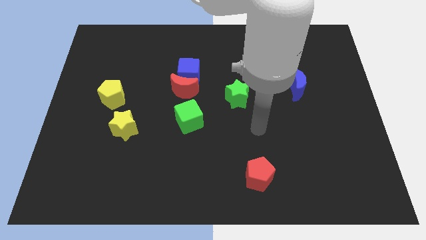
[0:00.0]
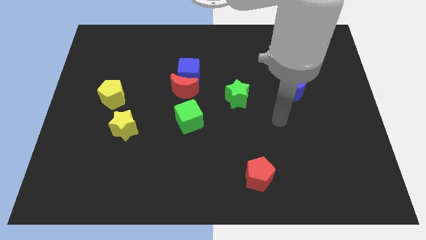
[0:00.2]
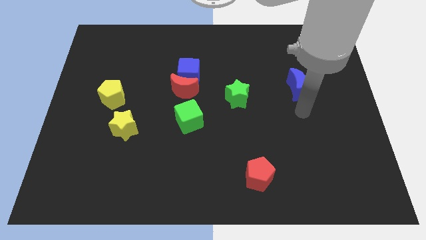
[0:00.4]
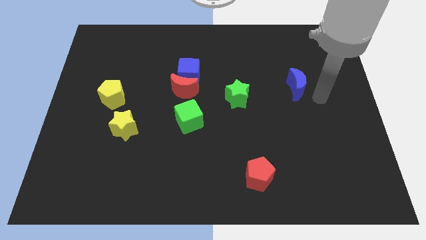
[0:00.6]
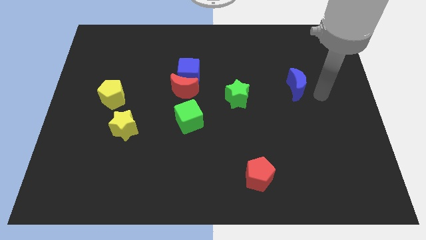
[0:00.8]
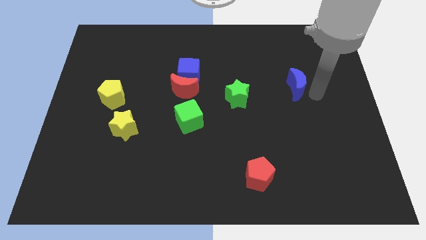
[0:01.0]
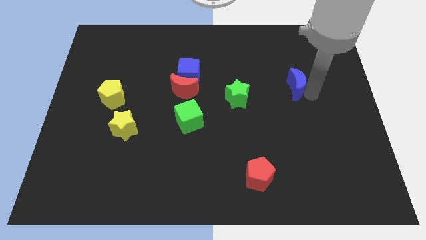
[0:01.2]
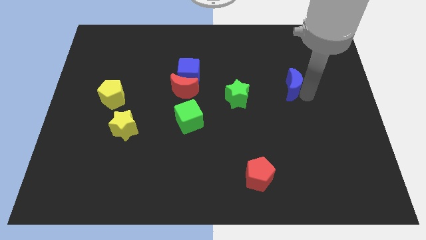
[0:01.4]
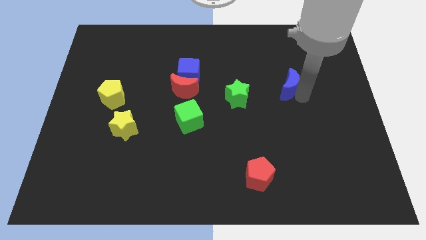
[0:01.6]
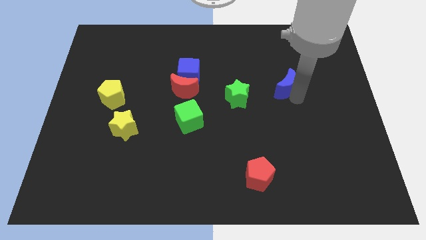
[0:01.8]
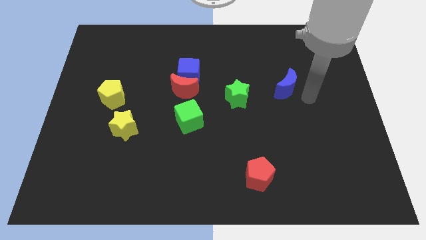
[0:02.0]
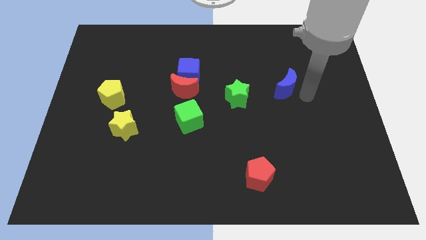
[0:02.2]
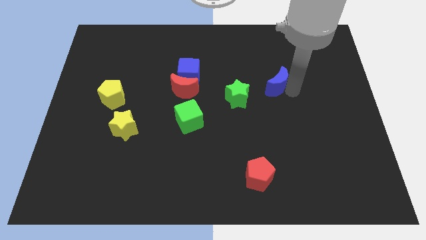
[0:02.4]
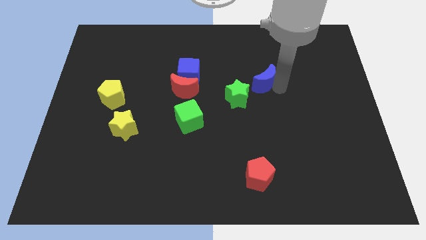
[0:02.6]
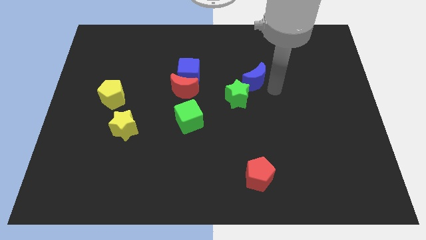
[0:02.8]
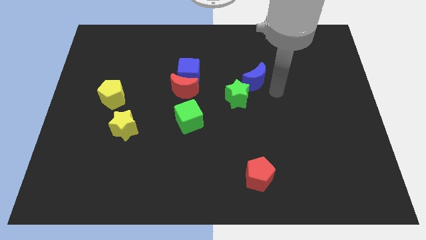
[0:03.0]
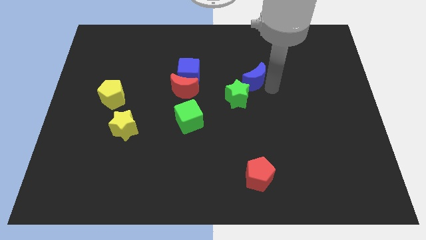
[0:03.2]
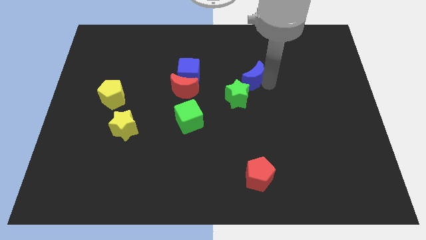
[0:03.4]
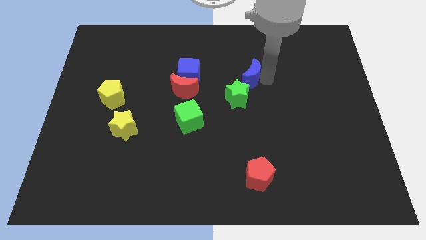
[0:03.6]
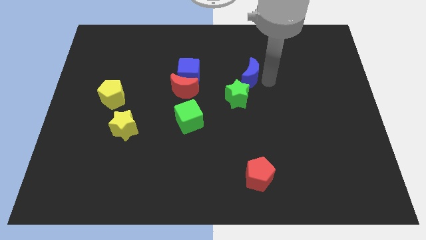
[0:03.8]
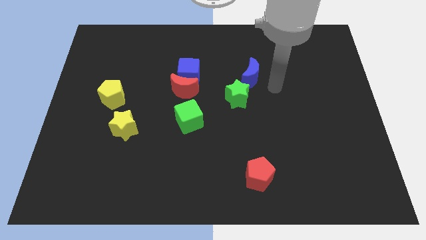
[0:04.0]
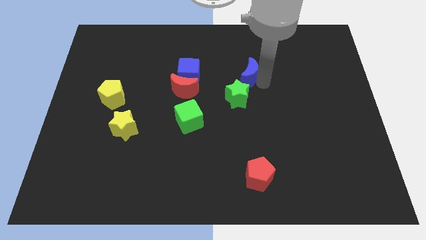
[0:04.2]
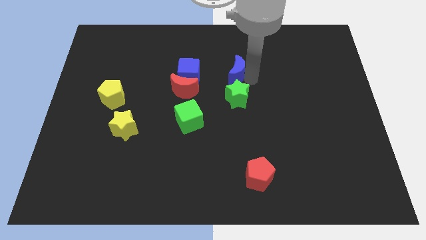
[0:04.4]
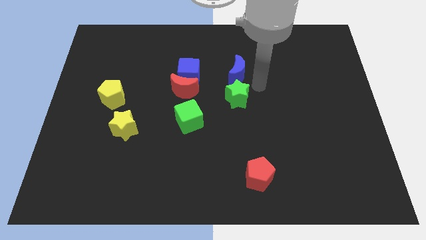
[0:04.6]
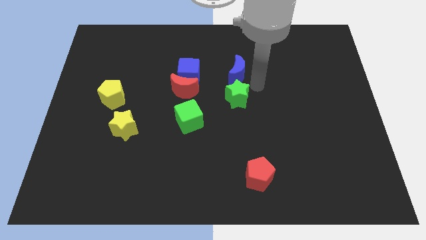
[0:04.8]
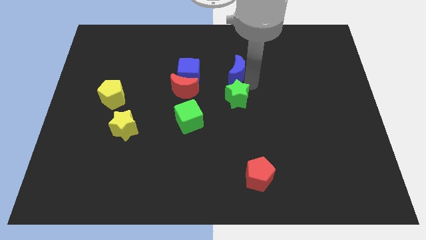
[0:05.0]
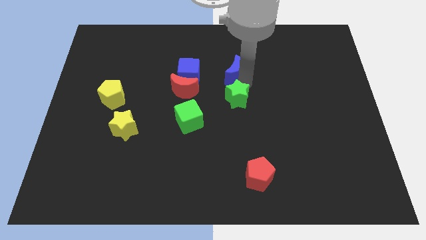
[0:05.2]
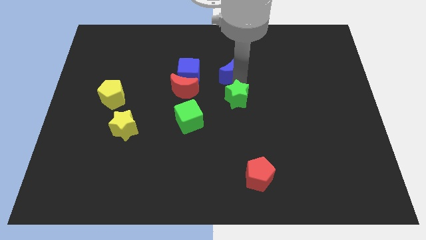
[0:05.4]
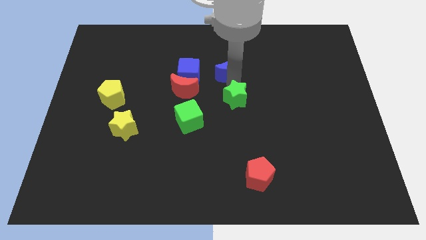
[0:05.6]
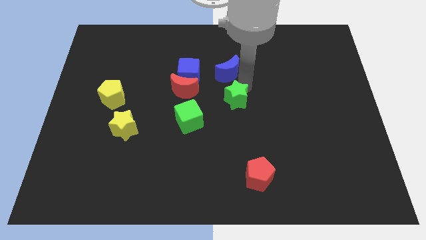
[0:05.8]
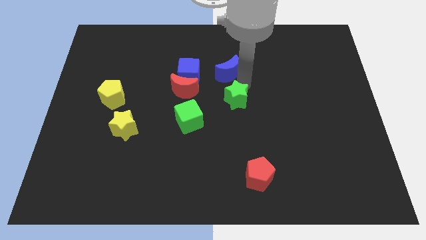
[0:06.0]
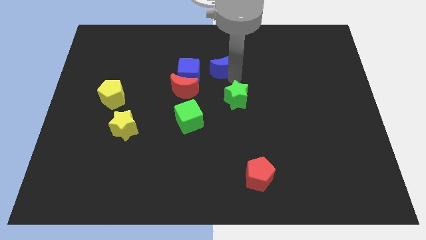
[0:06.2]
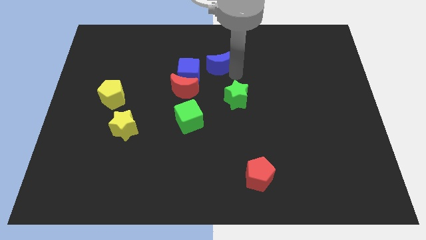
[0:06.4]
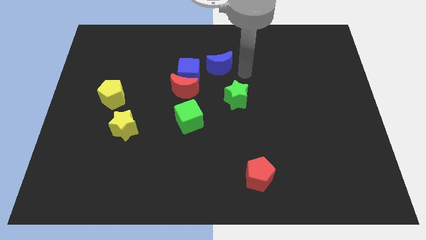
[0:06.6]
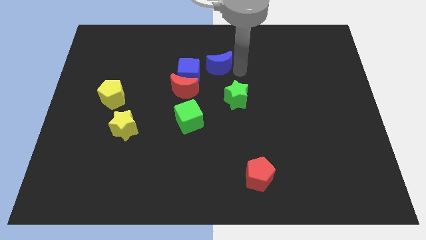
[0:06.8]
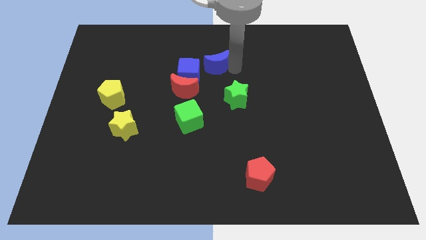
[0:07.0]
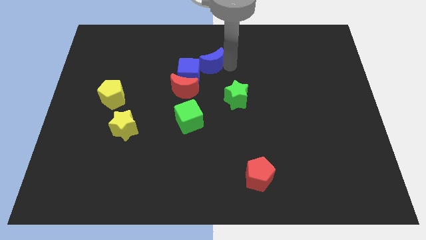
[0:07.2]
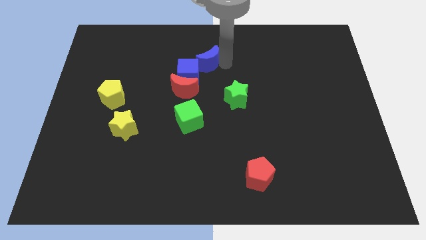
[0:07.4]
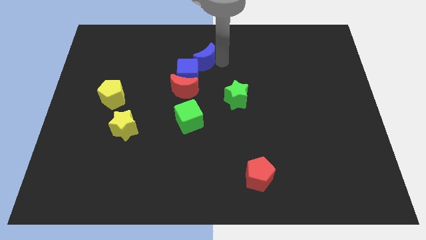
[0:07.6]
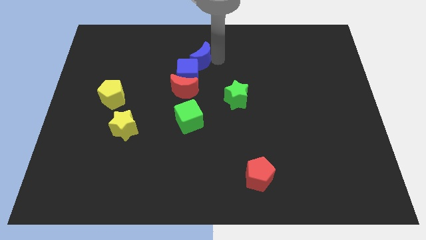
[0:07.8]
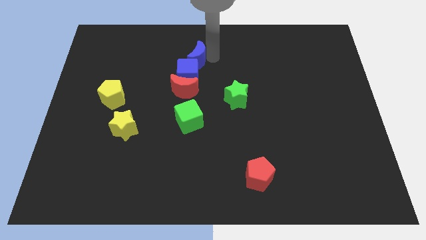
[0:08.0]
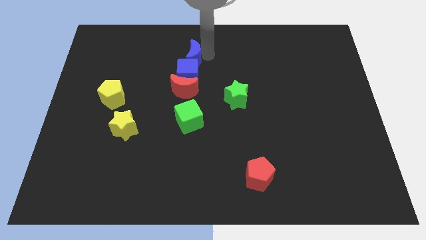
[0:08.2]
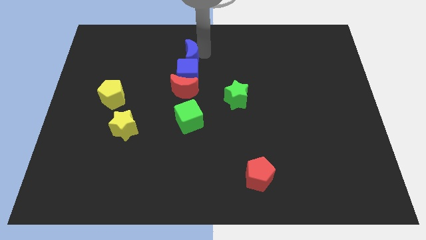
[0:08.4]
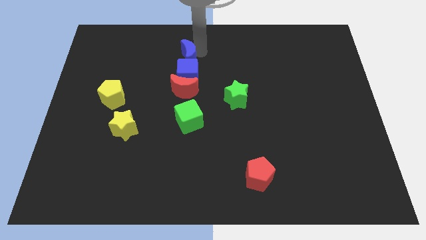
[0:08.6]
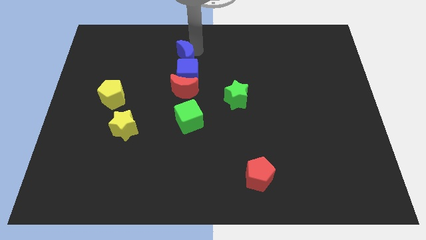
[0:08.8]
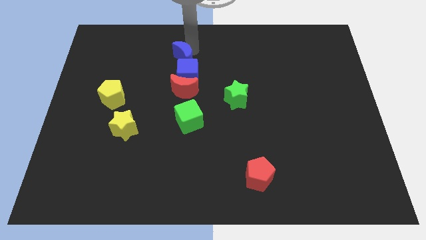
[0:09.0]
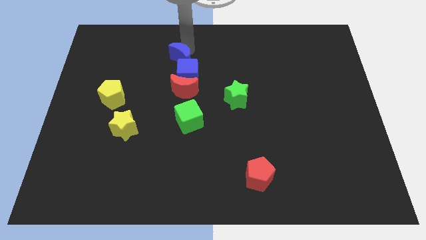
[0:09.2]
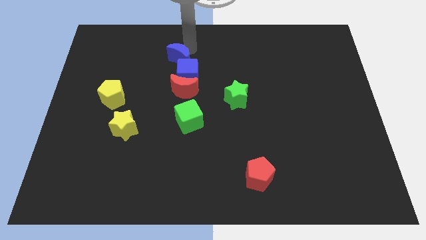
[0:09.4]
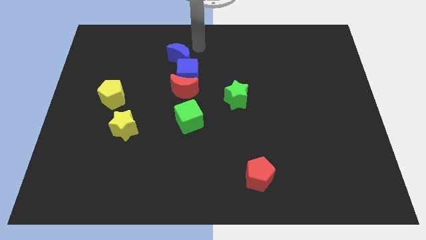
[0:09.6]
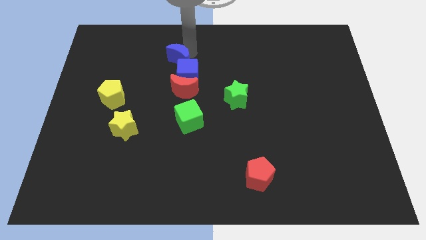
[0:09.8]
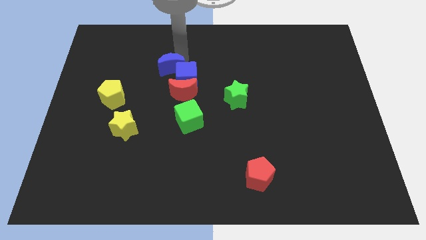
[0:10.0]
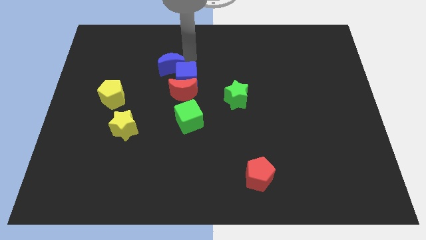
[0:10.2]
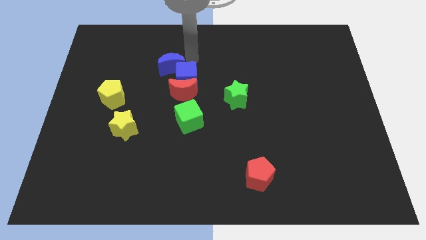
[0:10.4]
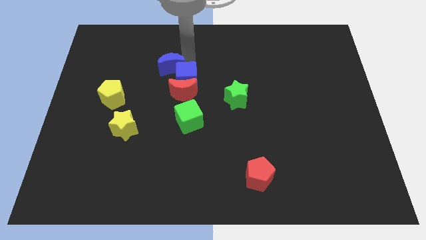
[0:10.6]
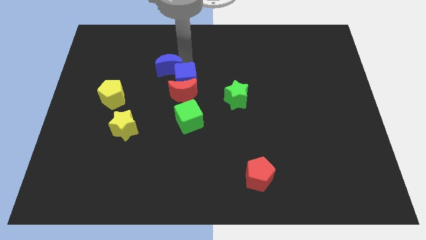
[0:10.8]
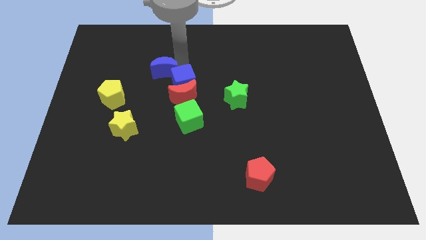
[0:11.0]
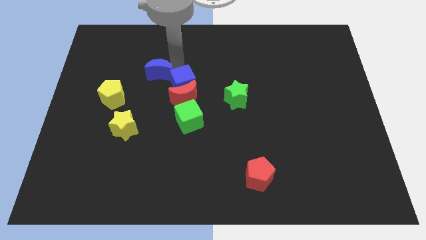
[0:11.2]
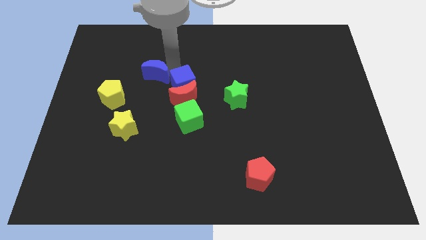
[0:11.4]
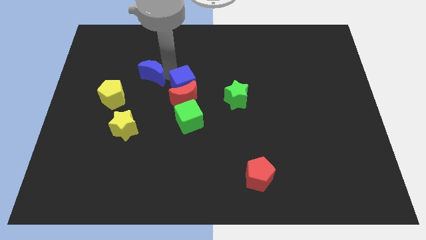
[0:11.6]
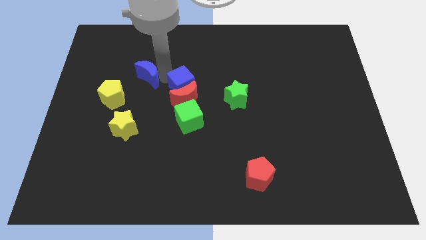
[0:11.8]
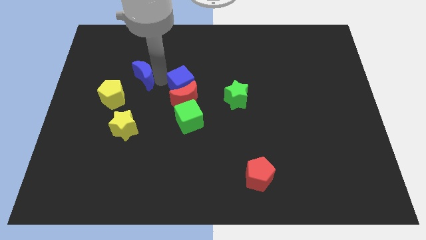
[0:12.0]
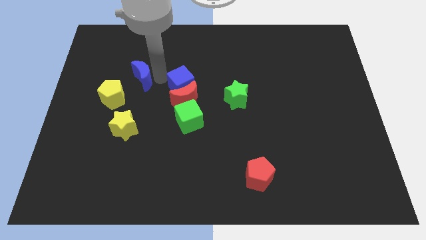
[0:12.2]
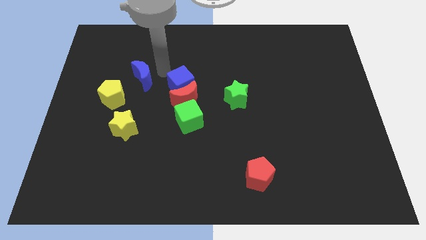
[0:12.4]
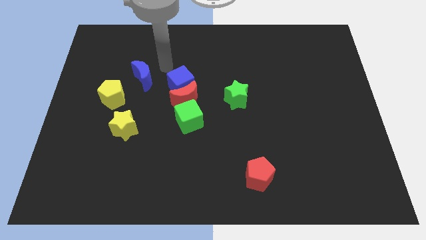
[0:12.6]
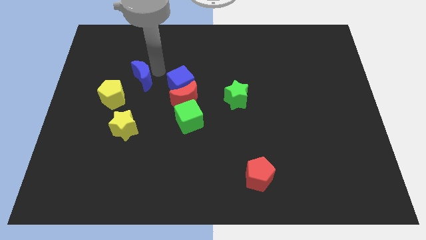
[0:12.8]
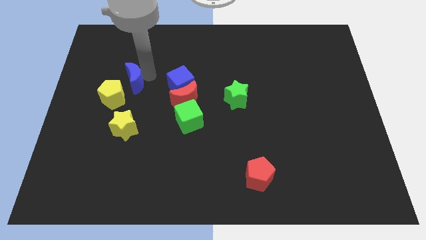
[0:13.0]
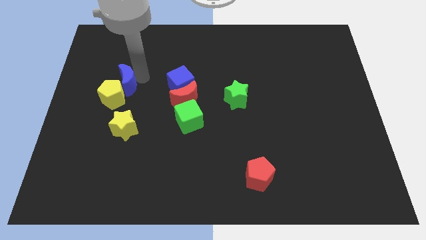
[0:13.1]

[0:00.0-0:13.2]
push the blue moon towards the yellow pentagon
